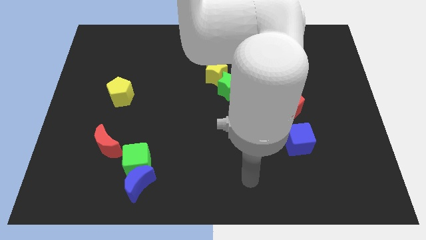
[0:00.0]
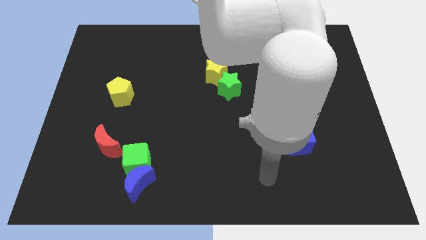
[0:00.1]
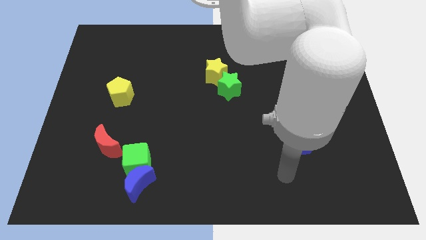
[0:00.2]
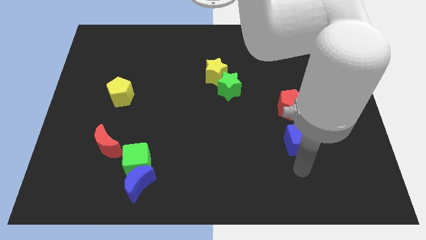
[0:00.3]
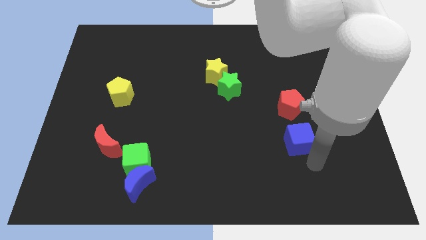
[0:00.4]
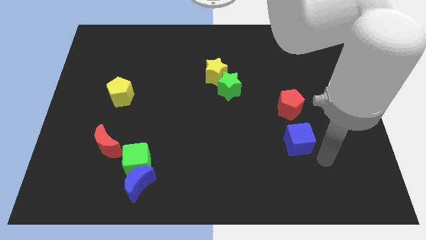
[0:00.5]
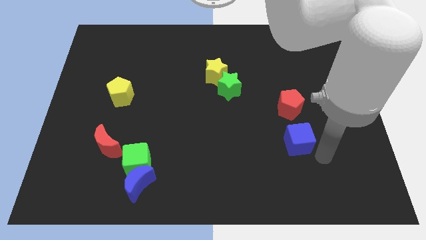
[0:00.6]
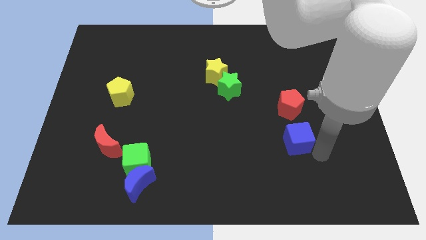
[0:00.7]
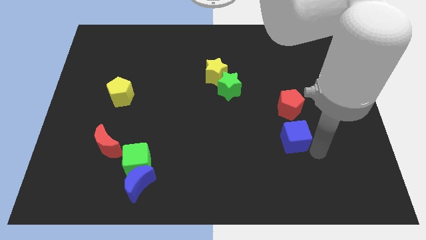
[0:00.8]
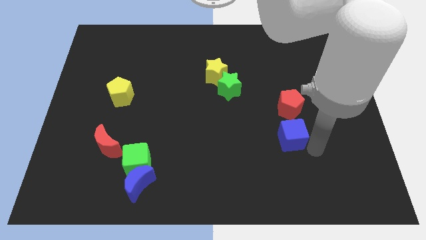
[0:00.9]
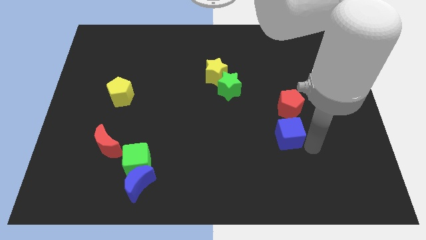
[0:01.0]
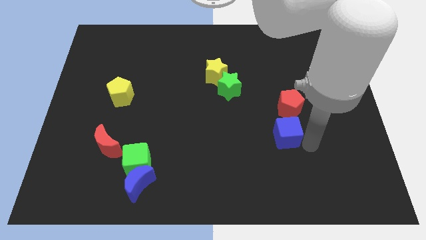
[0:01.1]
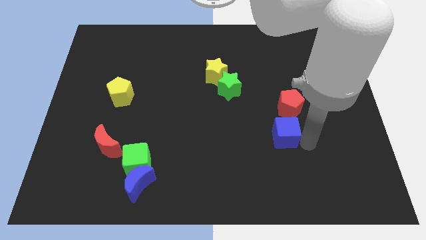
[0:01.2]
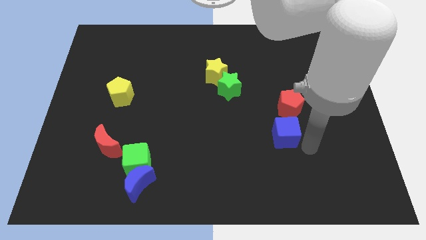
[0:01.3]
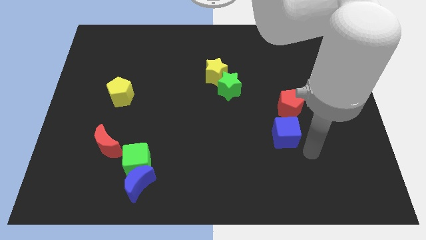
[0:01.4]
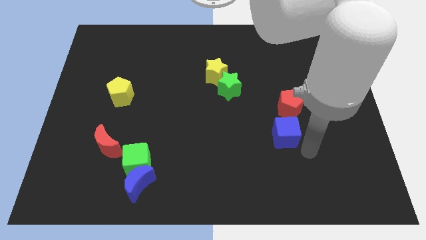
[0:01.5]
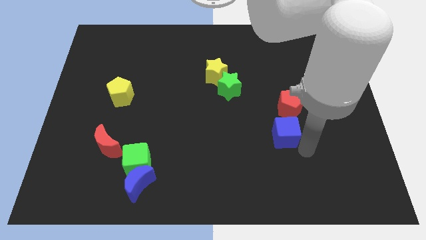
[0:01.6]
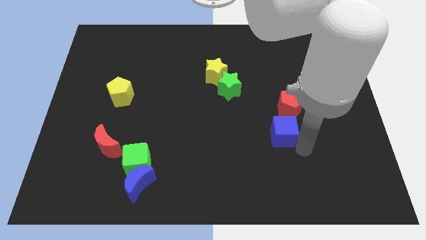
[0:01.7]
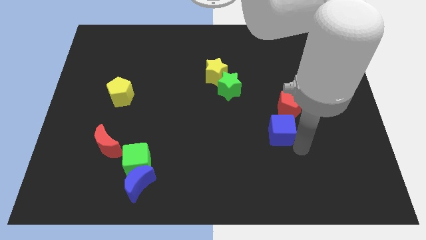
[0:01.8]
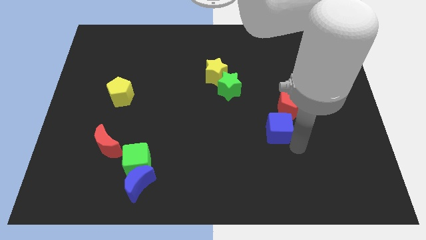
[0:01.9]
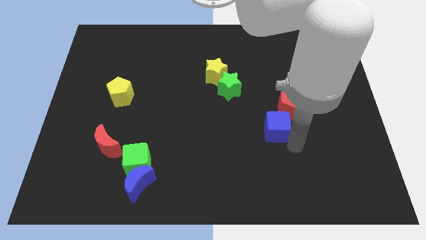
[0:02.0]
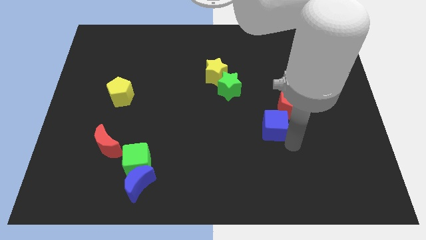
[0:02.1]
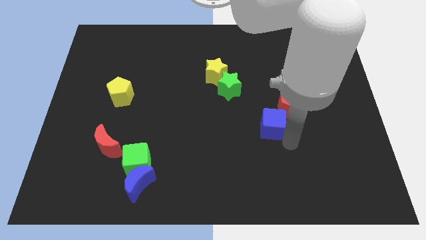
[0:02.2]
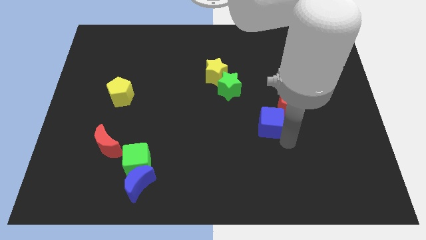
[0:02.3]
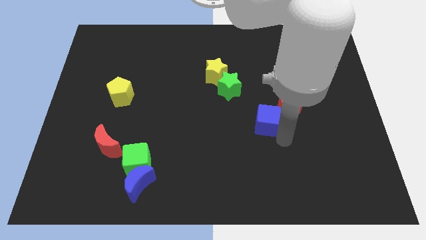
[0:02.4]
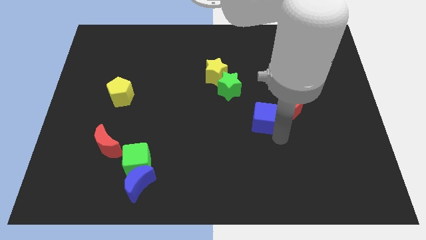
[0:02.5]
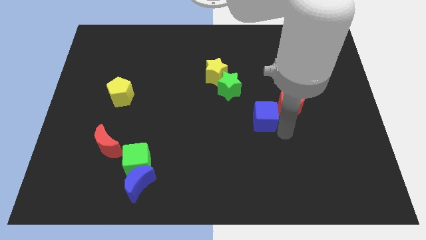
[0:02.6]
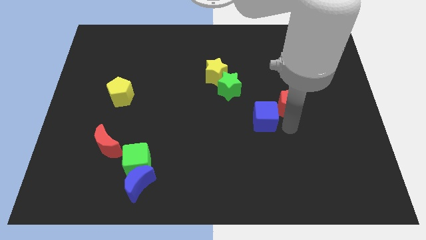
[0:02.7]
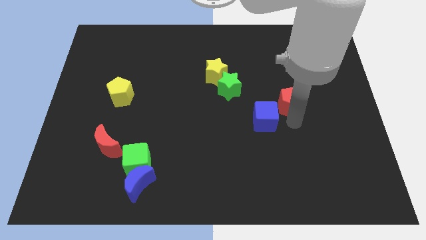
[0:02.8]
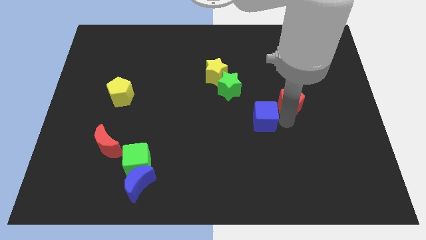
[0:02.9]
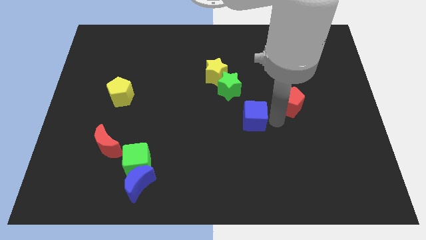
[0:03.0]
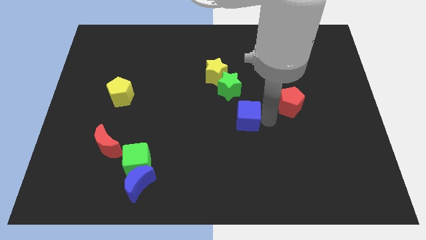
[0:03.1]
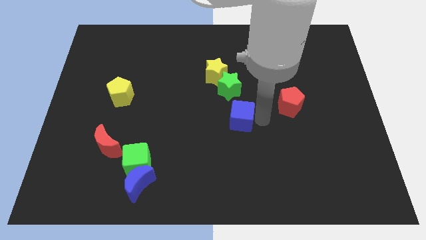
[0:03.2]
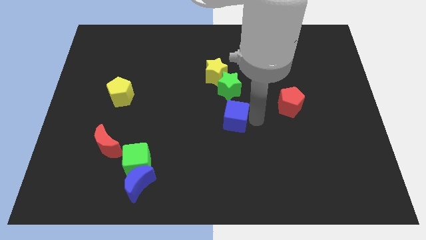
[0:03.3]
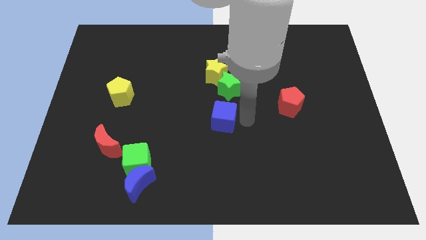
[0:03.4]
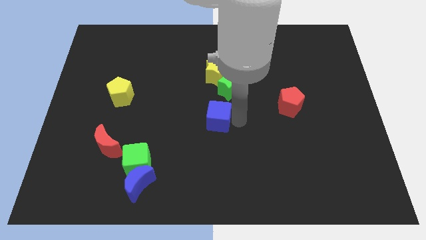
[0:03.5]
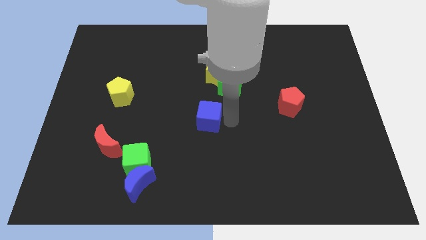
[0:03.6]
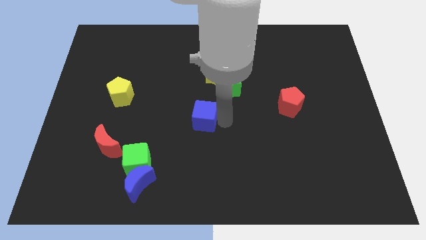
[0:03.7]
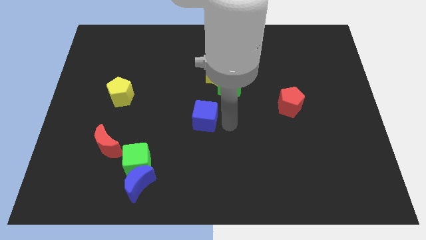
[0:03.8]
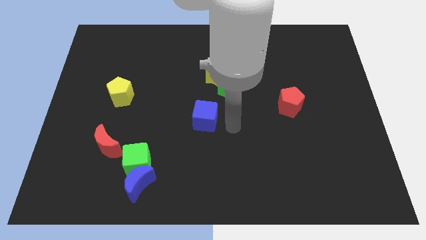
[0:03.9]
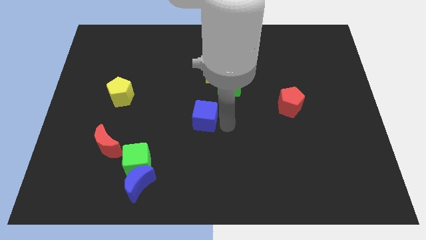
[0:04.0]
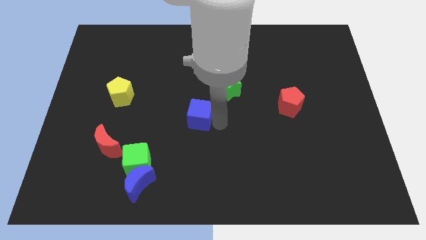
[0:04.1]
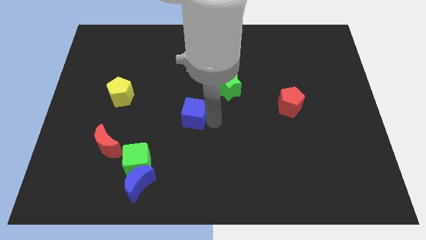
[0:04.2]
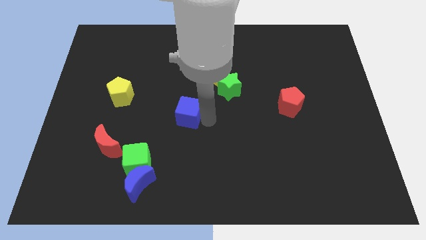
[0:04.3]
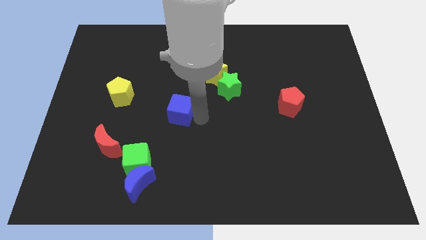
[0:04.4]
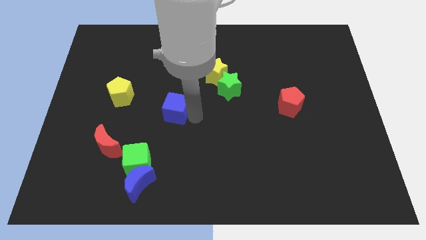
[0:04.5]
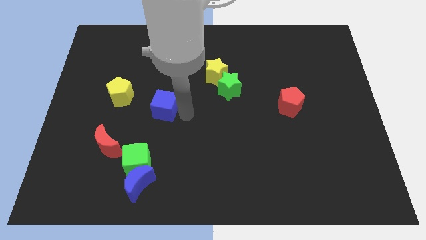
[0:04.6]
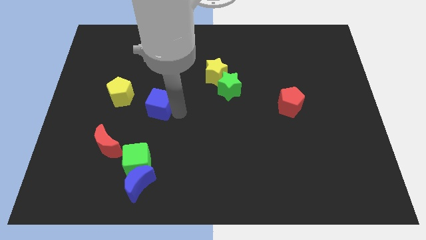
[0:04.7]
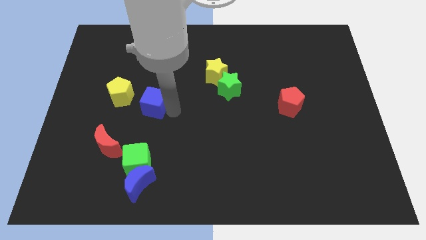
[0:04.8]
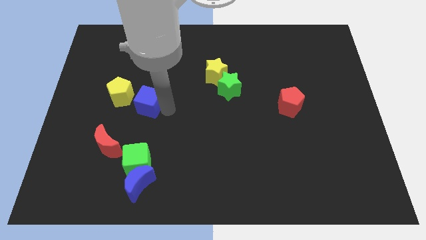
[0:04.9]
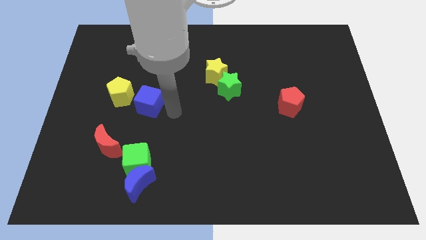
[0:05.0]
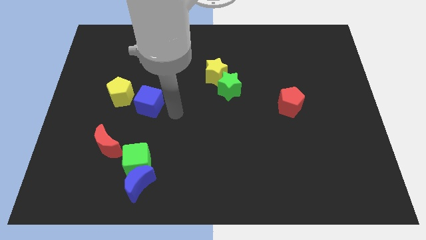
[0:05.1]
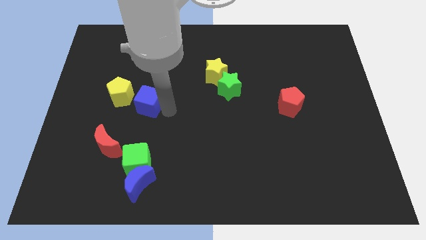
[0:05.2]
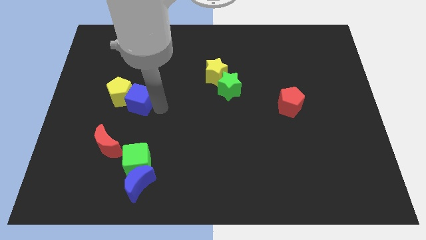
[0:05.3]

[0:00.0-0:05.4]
move the blue cube to the yellow pentagon

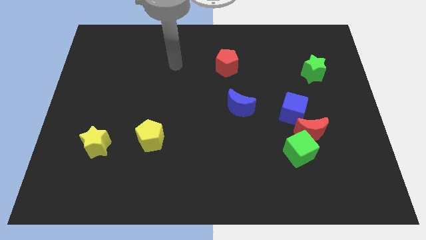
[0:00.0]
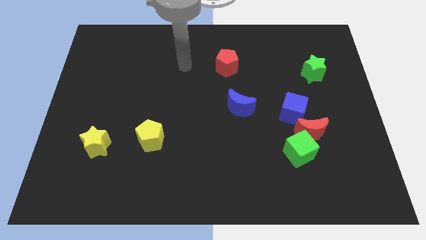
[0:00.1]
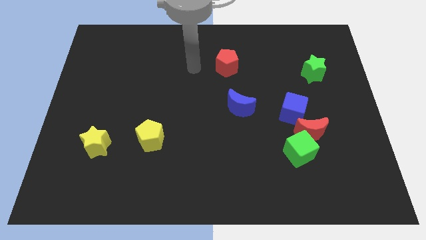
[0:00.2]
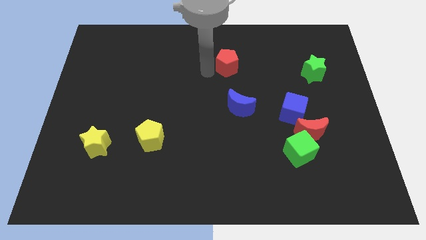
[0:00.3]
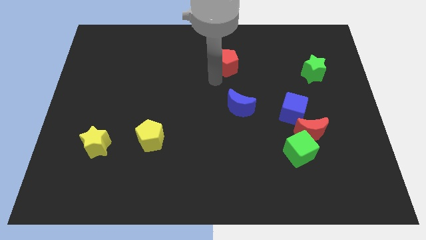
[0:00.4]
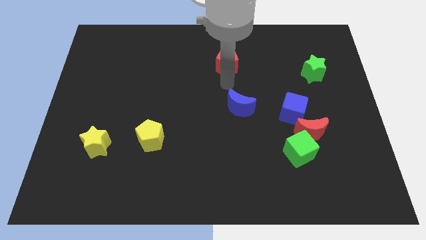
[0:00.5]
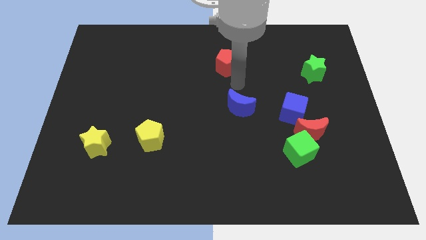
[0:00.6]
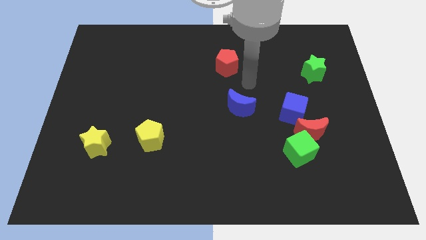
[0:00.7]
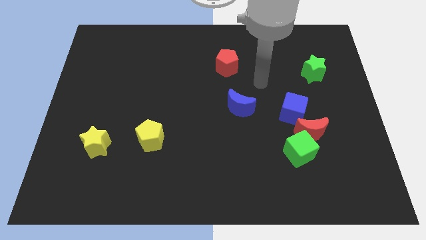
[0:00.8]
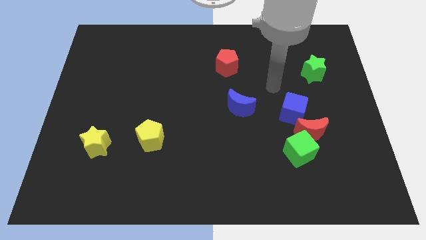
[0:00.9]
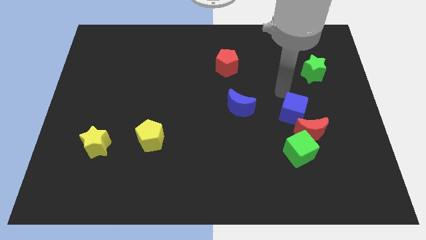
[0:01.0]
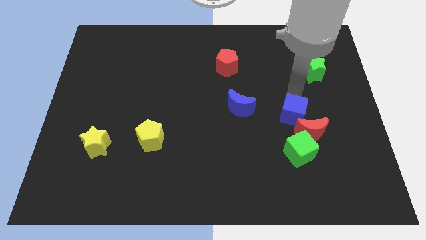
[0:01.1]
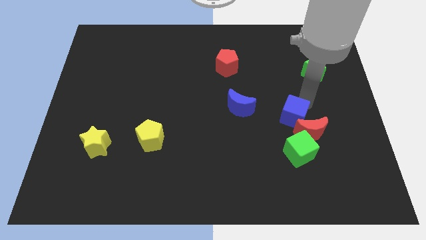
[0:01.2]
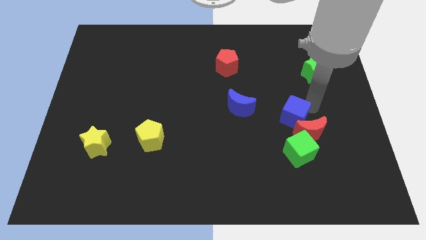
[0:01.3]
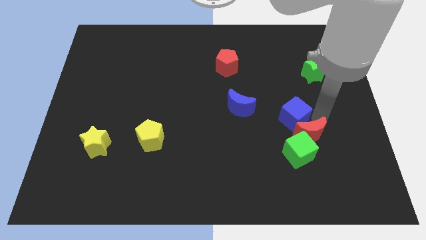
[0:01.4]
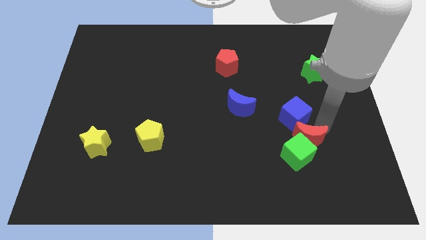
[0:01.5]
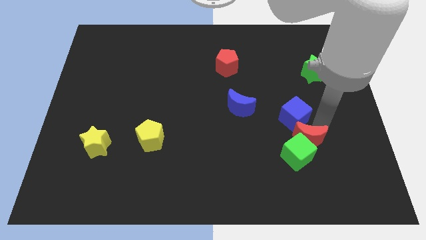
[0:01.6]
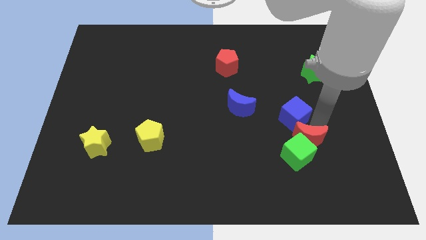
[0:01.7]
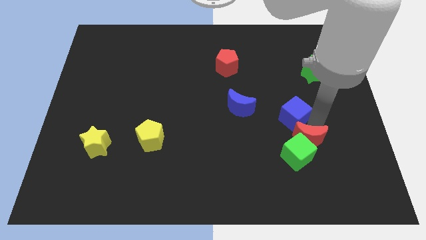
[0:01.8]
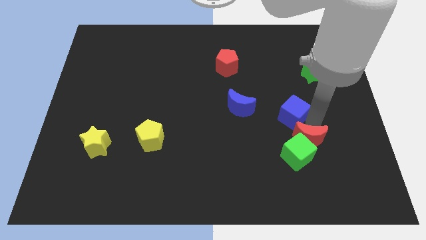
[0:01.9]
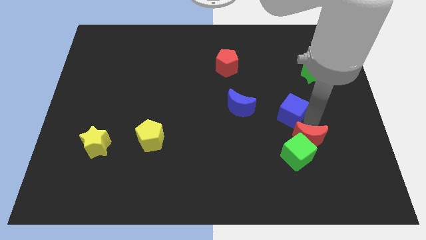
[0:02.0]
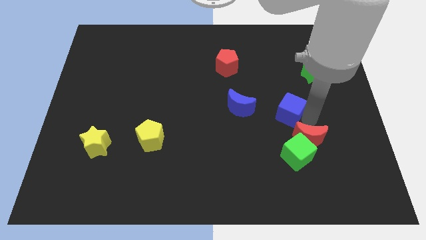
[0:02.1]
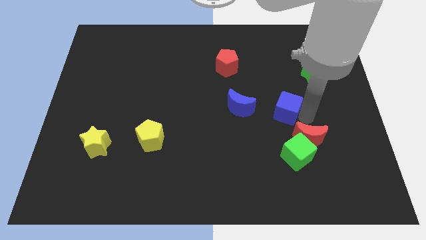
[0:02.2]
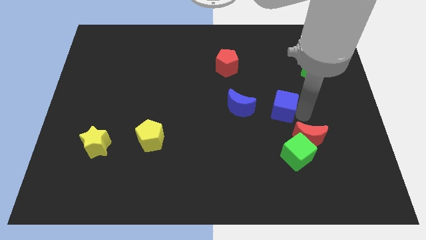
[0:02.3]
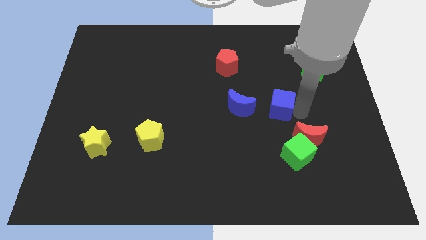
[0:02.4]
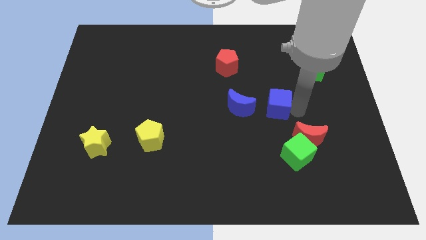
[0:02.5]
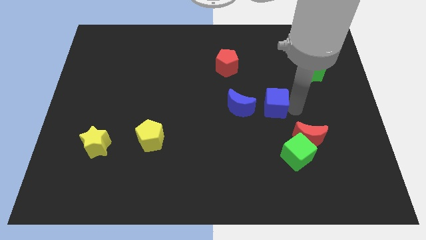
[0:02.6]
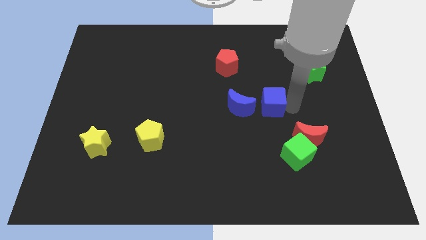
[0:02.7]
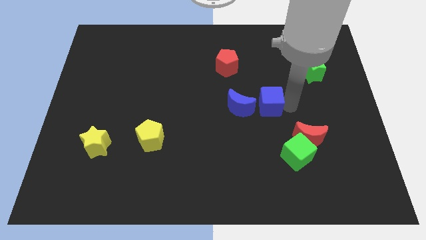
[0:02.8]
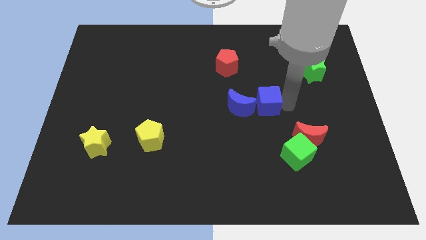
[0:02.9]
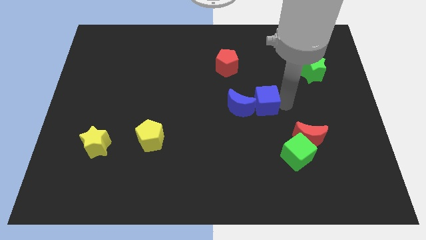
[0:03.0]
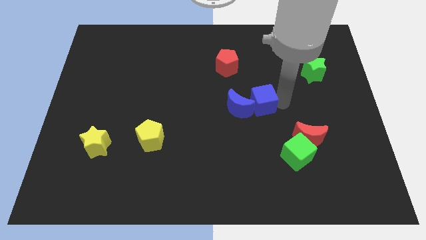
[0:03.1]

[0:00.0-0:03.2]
move the blue cube towards the blue moon
